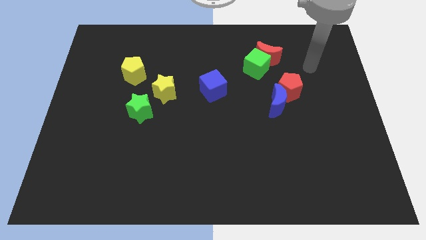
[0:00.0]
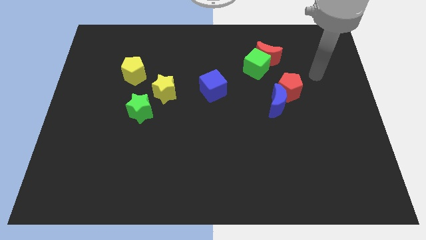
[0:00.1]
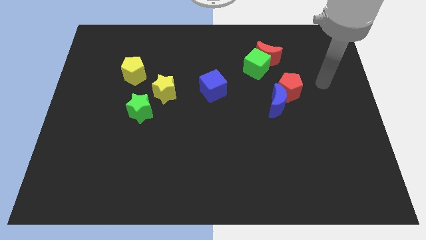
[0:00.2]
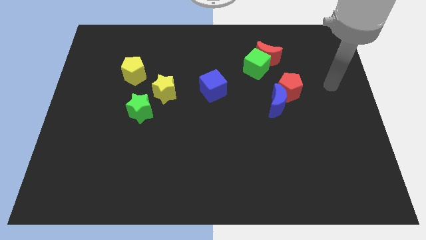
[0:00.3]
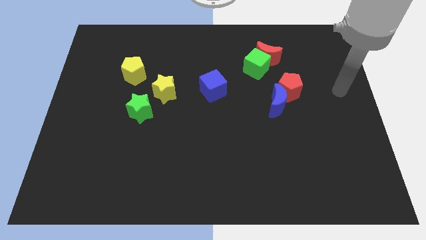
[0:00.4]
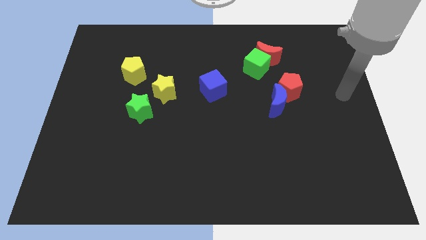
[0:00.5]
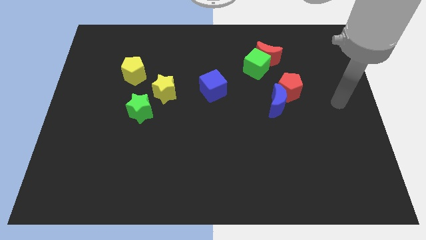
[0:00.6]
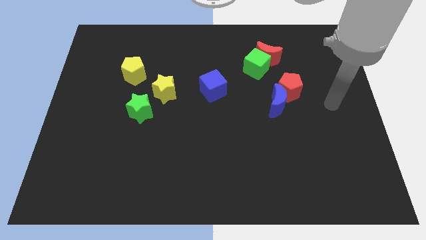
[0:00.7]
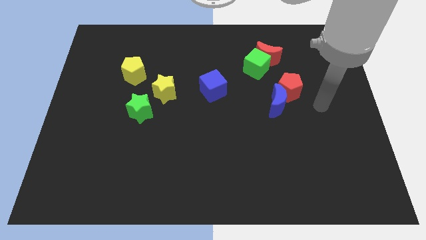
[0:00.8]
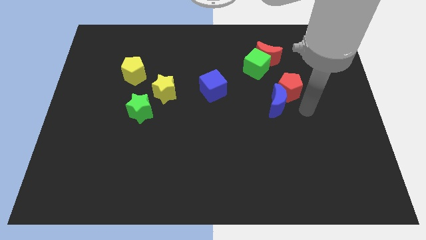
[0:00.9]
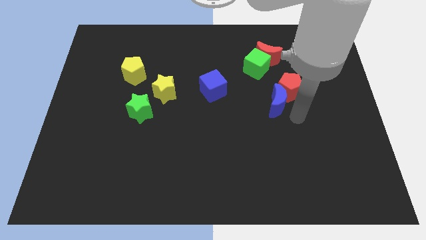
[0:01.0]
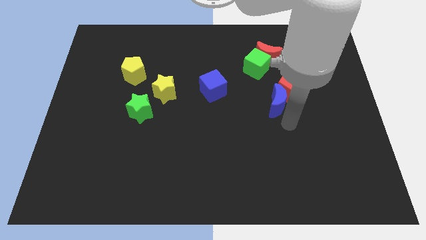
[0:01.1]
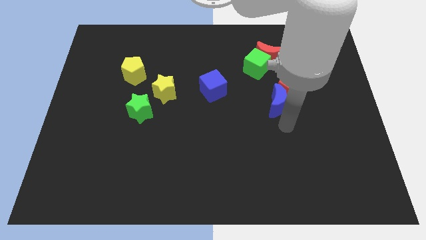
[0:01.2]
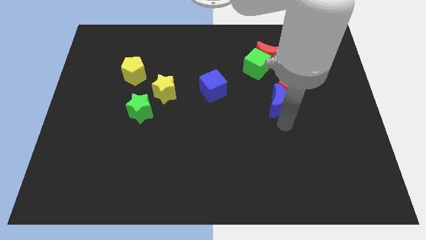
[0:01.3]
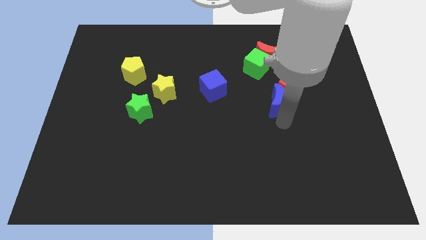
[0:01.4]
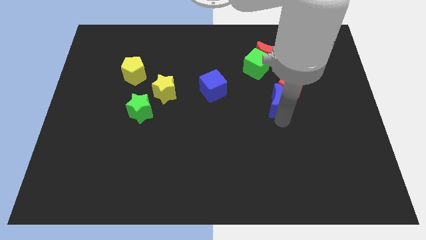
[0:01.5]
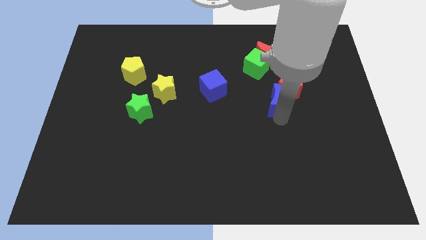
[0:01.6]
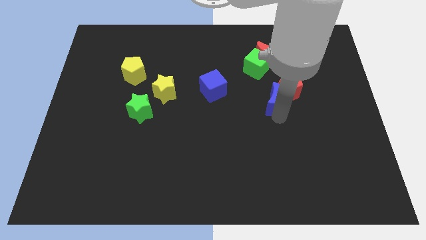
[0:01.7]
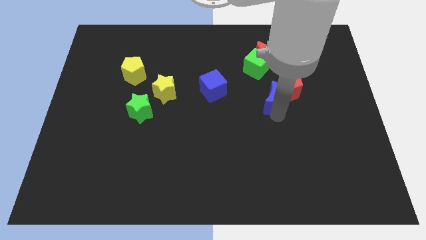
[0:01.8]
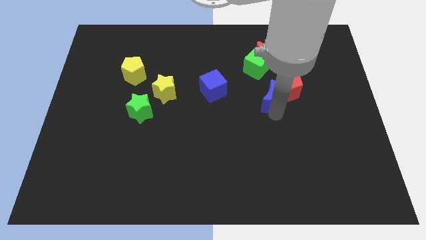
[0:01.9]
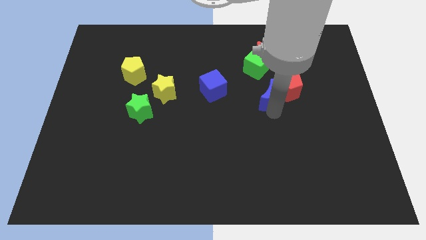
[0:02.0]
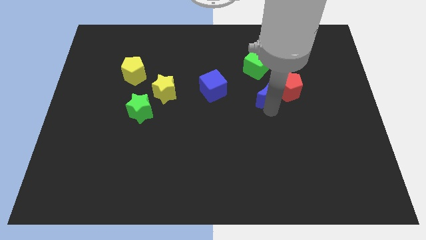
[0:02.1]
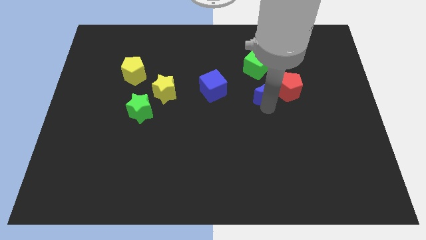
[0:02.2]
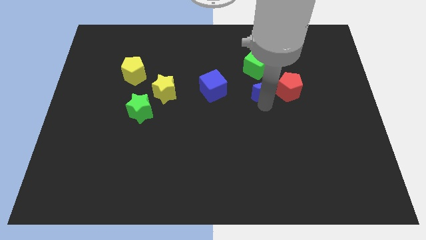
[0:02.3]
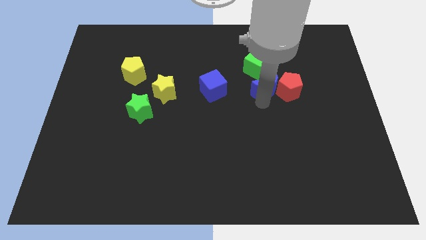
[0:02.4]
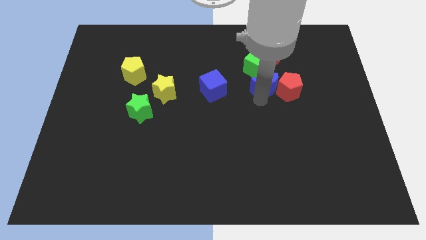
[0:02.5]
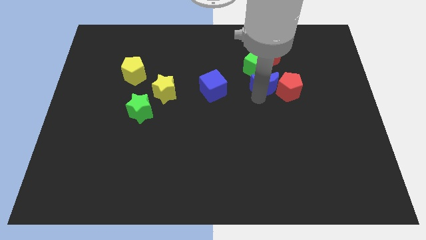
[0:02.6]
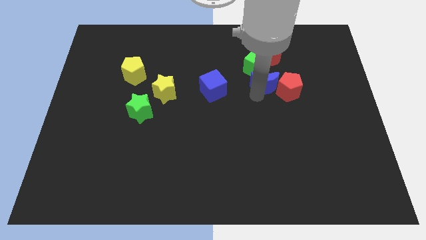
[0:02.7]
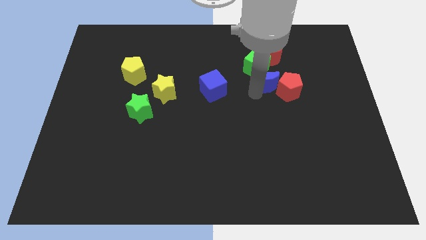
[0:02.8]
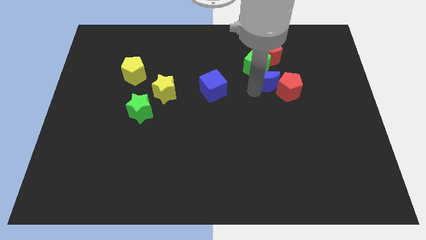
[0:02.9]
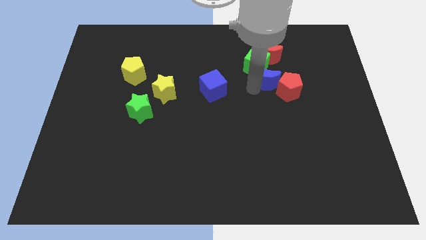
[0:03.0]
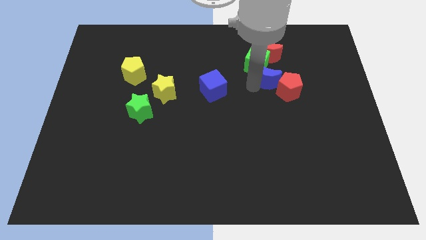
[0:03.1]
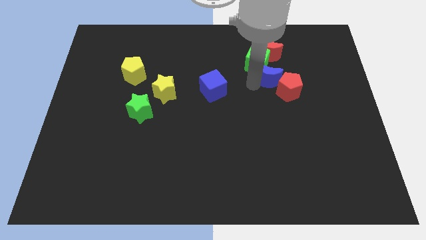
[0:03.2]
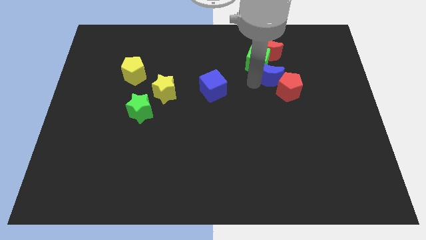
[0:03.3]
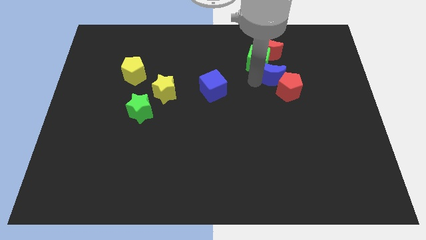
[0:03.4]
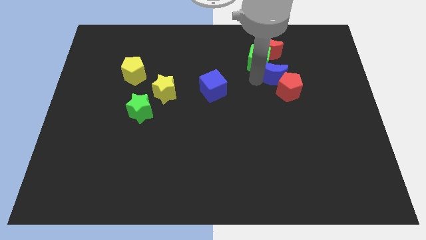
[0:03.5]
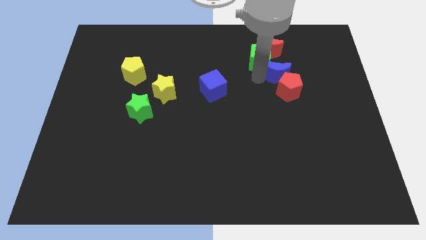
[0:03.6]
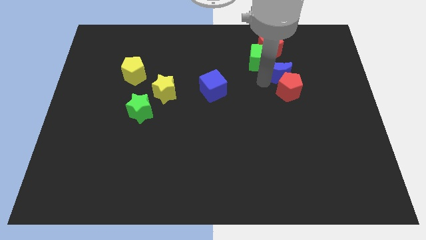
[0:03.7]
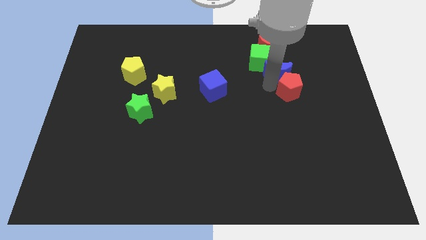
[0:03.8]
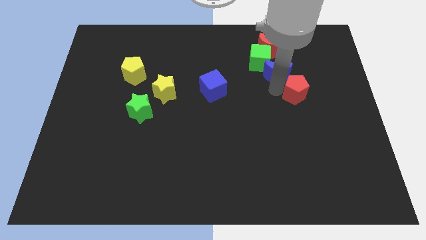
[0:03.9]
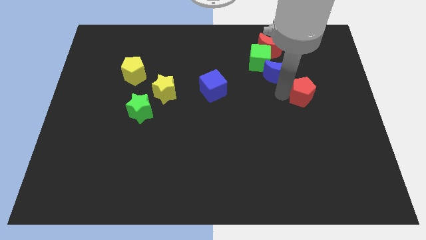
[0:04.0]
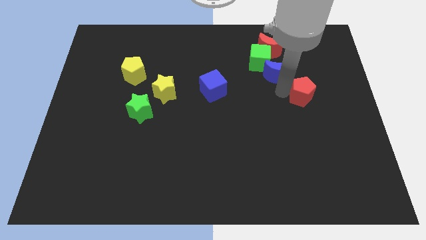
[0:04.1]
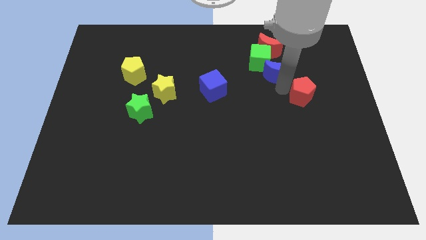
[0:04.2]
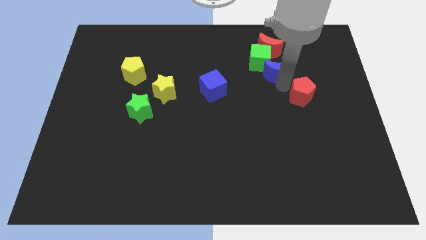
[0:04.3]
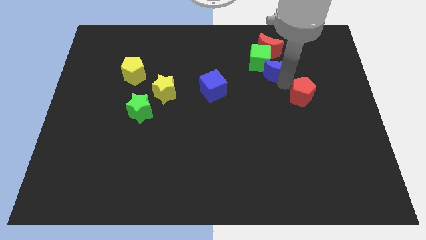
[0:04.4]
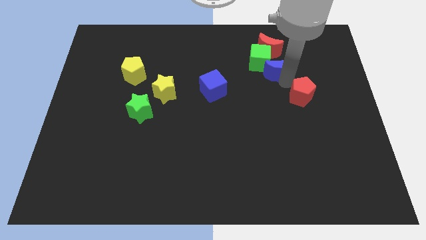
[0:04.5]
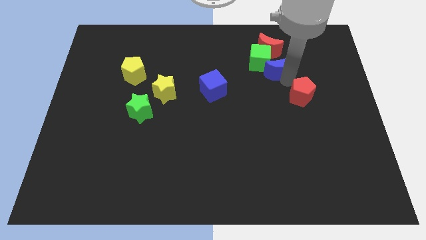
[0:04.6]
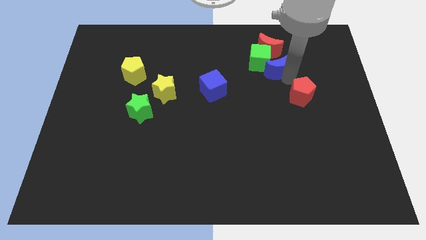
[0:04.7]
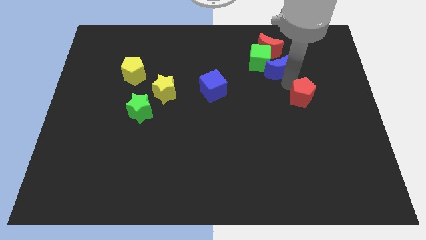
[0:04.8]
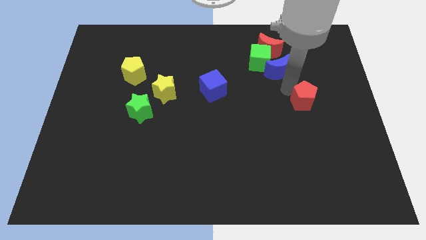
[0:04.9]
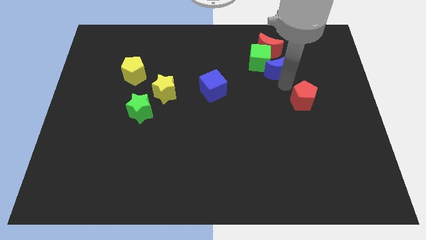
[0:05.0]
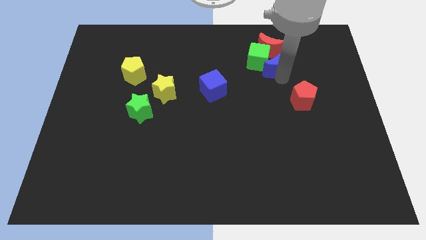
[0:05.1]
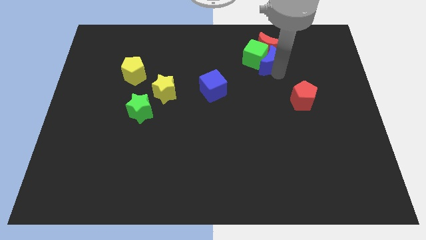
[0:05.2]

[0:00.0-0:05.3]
push the blue moon to the red moon

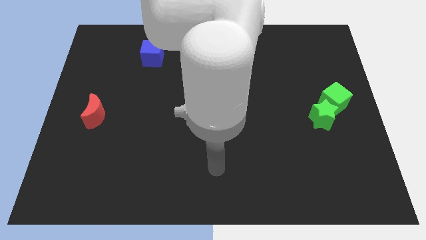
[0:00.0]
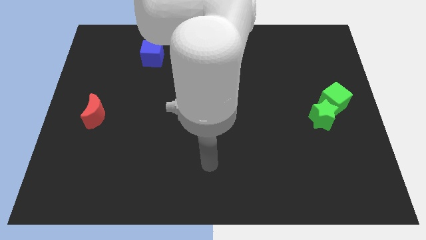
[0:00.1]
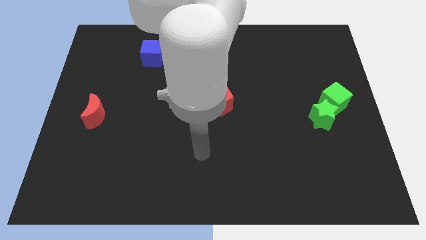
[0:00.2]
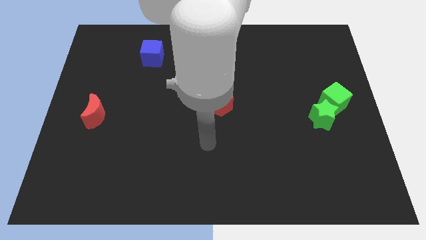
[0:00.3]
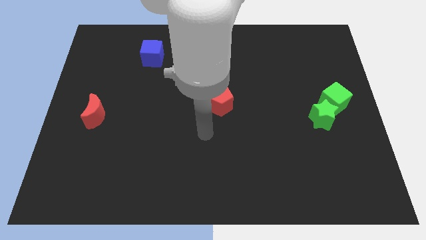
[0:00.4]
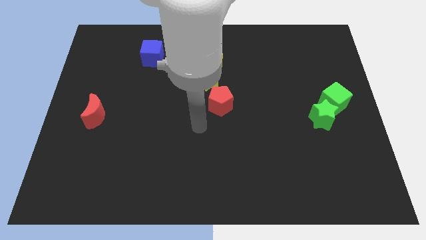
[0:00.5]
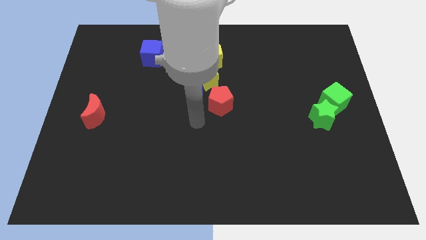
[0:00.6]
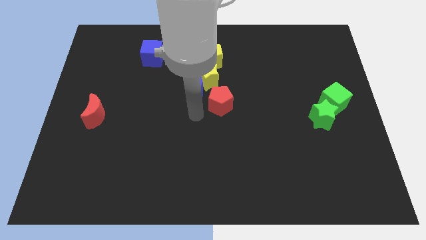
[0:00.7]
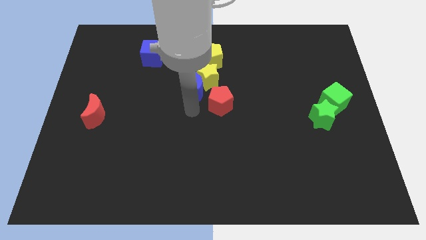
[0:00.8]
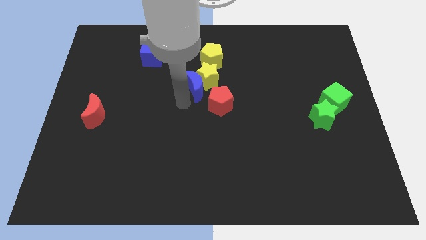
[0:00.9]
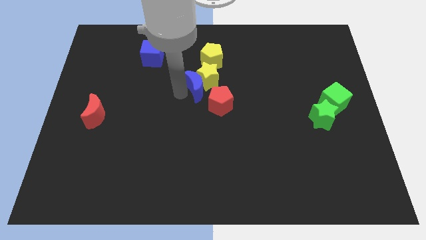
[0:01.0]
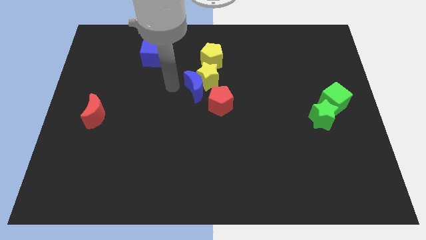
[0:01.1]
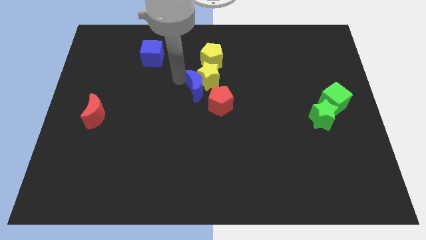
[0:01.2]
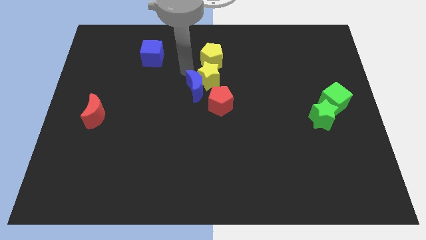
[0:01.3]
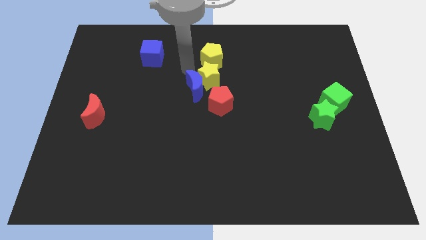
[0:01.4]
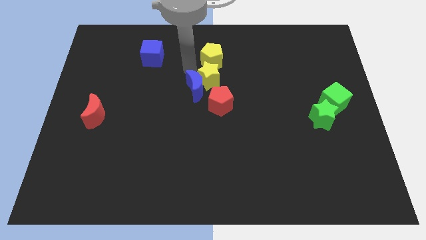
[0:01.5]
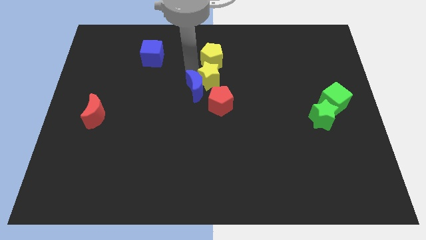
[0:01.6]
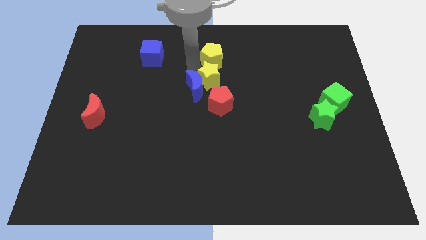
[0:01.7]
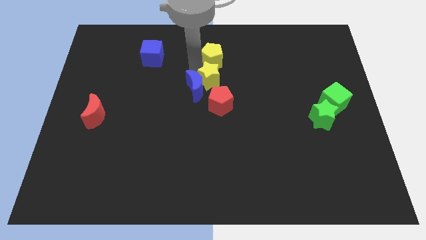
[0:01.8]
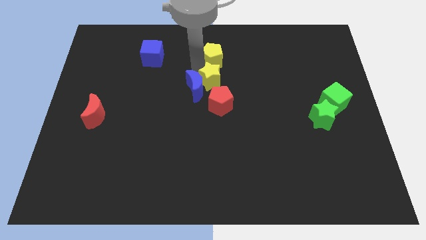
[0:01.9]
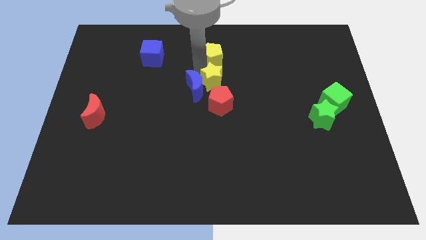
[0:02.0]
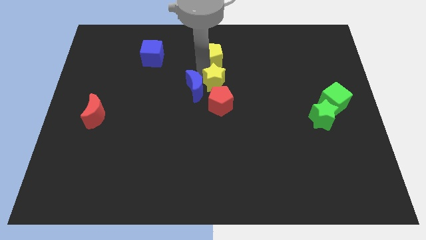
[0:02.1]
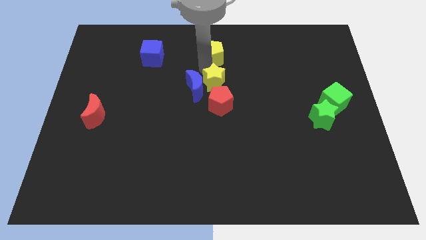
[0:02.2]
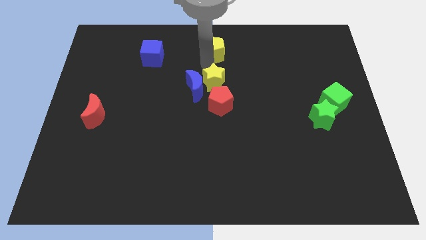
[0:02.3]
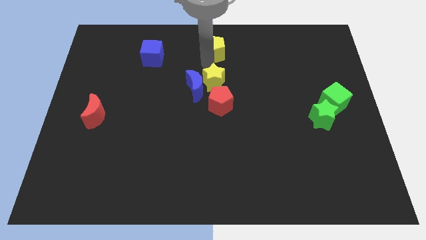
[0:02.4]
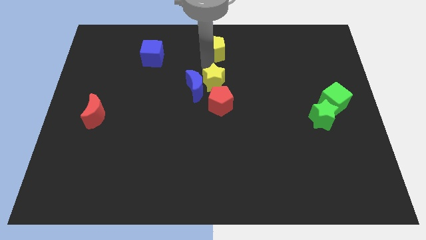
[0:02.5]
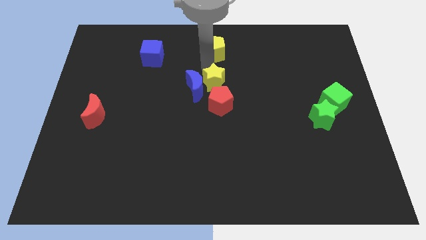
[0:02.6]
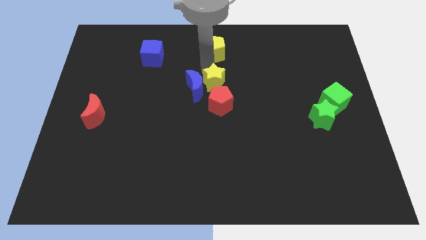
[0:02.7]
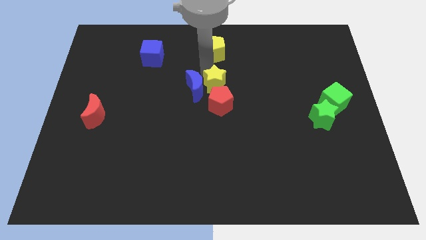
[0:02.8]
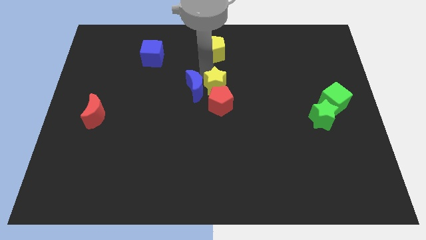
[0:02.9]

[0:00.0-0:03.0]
slide the yellow star next to the red pentagon
